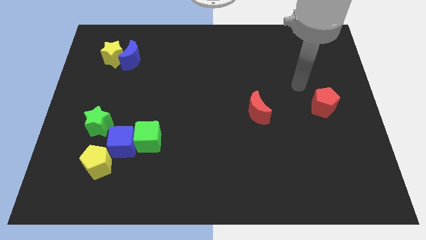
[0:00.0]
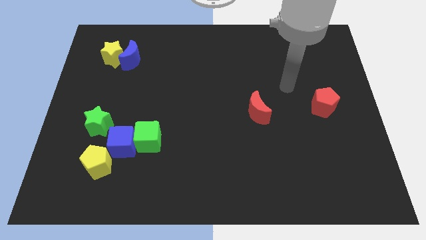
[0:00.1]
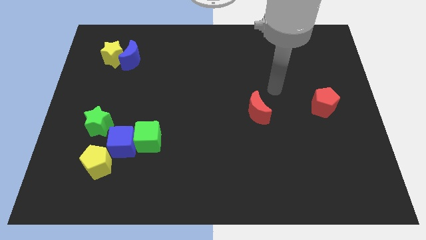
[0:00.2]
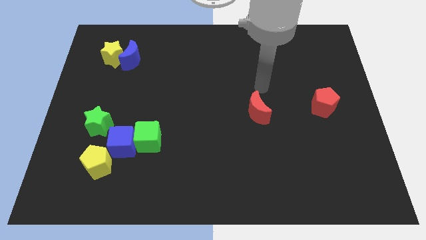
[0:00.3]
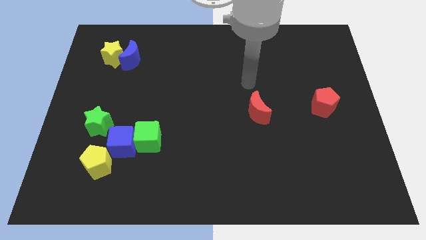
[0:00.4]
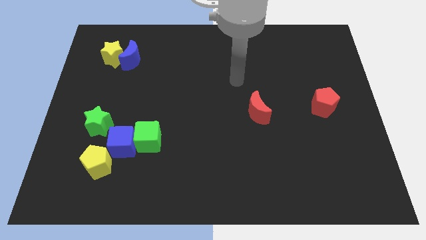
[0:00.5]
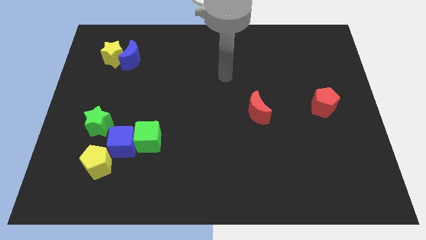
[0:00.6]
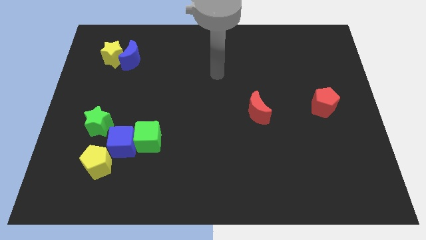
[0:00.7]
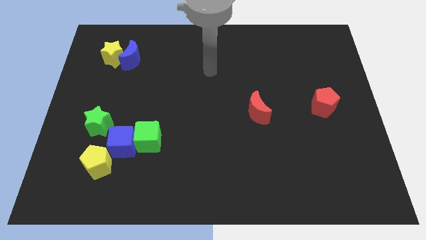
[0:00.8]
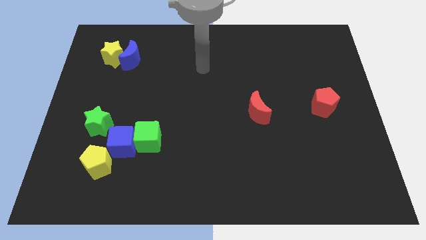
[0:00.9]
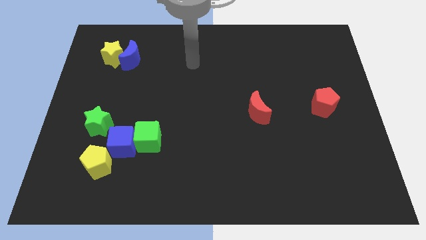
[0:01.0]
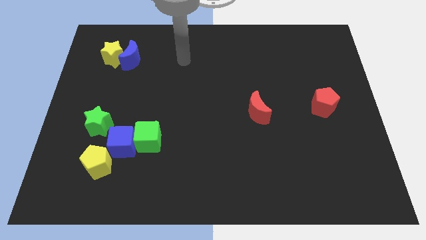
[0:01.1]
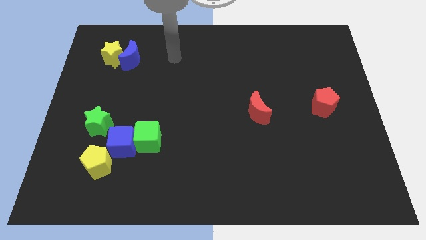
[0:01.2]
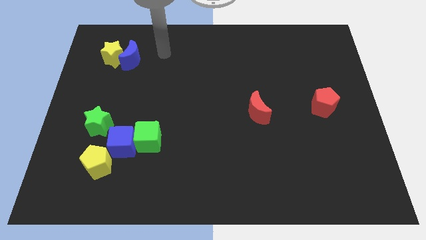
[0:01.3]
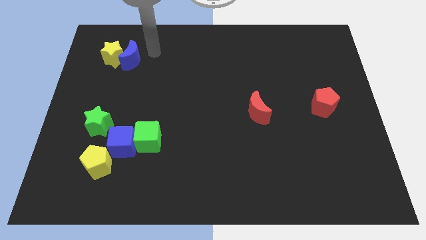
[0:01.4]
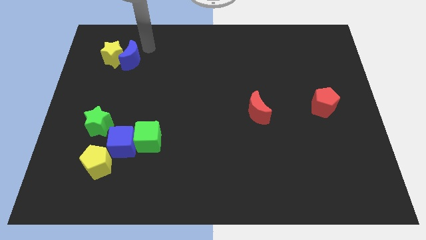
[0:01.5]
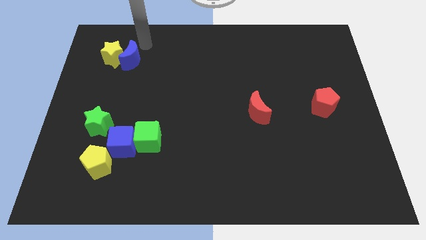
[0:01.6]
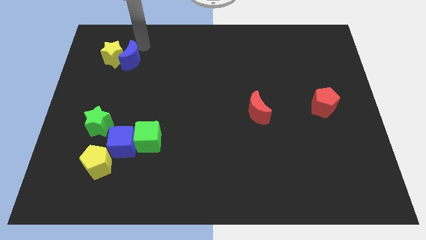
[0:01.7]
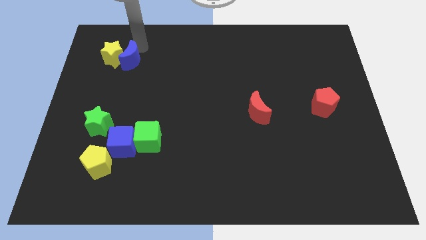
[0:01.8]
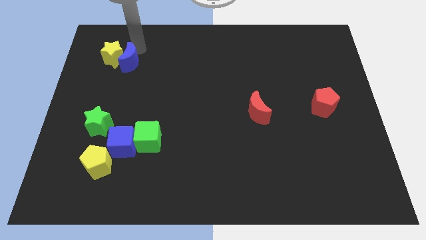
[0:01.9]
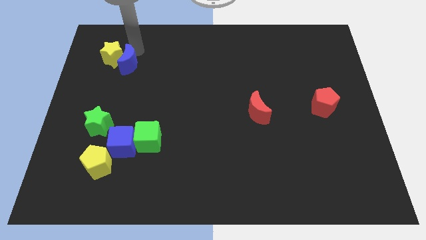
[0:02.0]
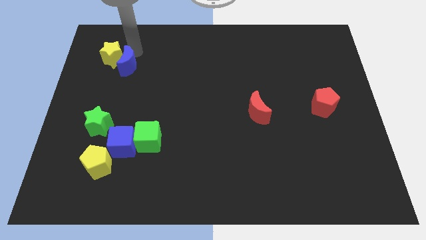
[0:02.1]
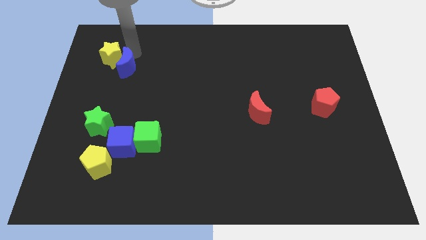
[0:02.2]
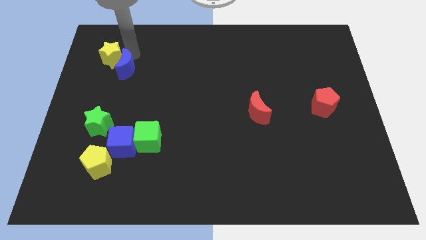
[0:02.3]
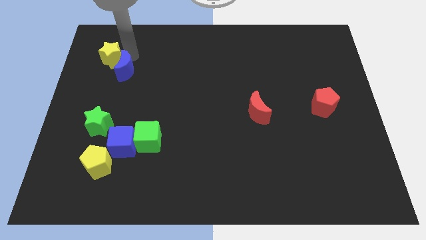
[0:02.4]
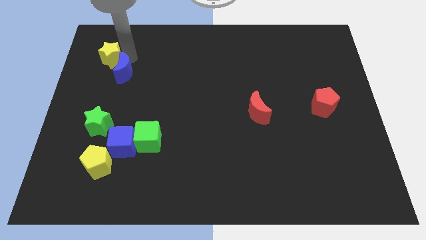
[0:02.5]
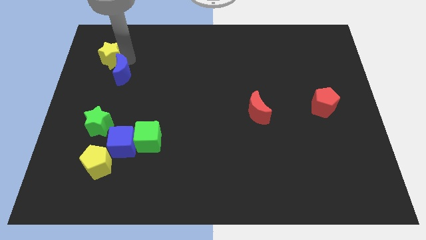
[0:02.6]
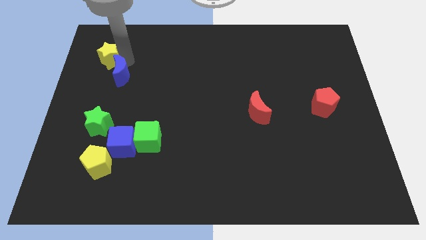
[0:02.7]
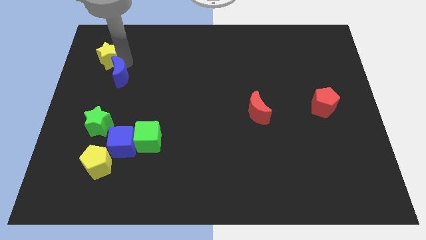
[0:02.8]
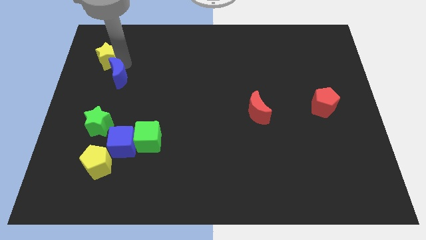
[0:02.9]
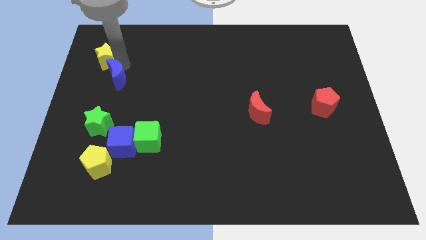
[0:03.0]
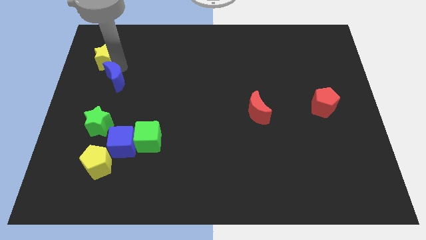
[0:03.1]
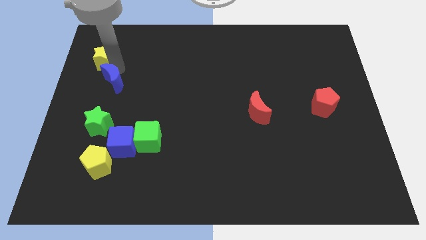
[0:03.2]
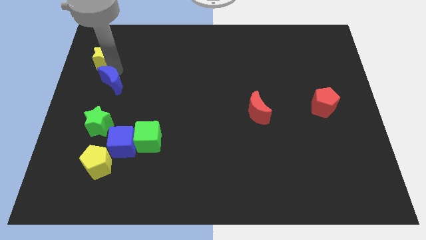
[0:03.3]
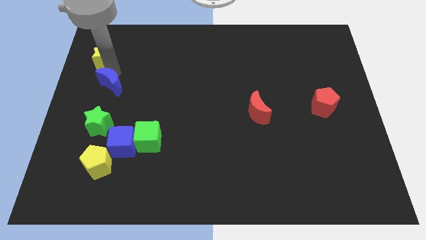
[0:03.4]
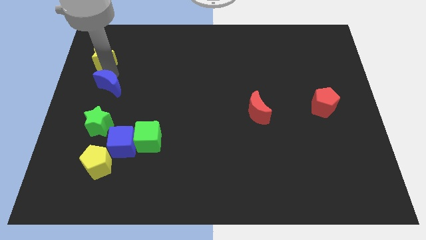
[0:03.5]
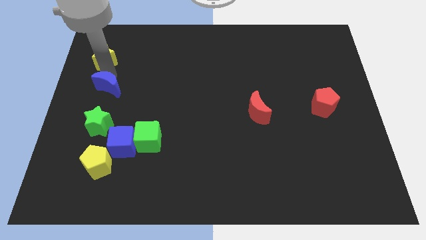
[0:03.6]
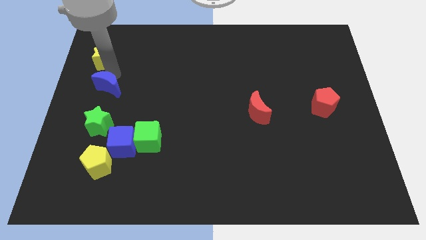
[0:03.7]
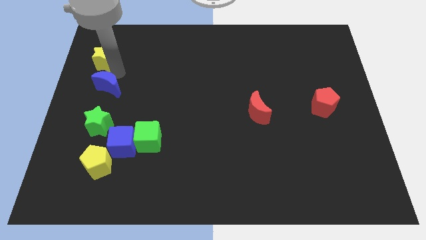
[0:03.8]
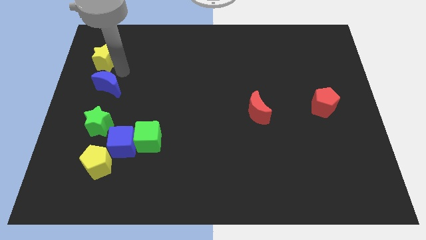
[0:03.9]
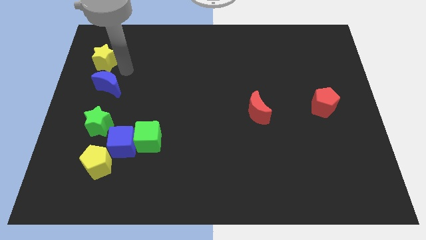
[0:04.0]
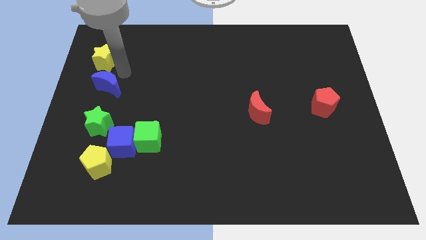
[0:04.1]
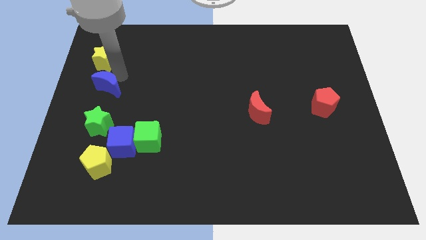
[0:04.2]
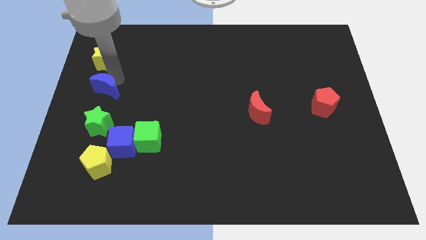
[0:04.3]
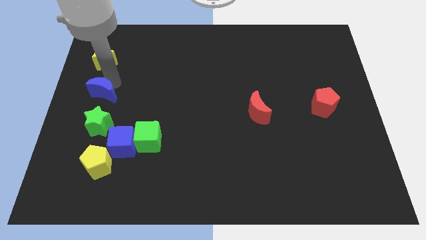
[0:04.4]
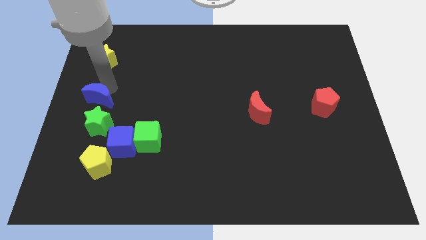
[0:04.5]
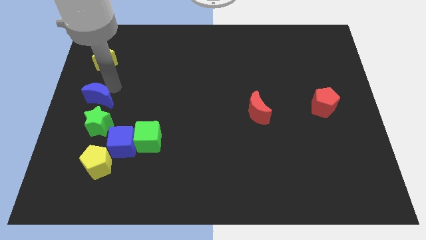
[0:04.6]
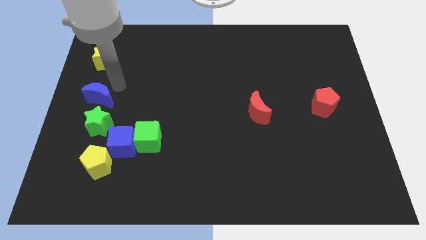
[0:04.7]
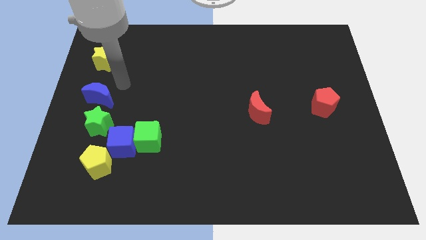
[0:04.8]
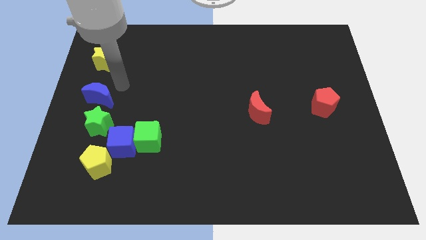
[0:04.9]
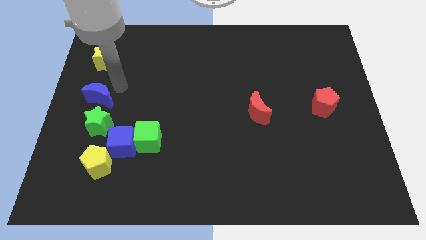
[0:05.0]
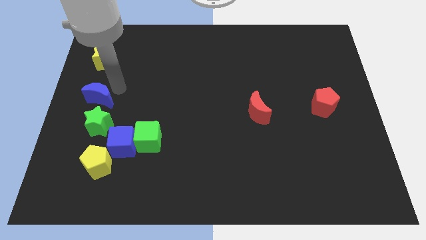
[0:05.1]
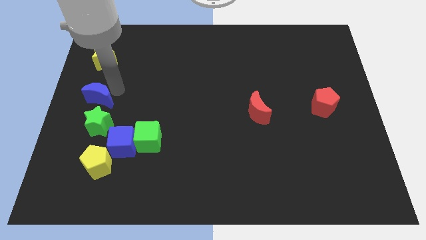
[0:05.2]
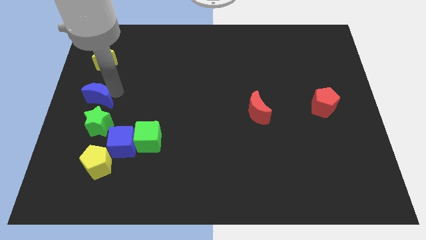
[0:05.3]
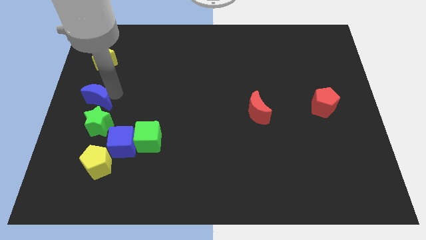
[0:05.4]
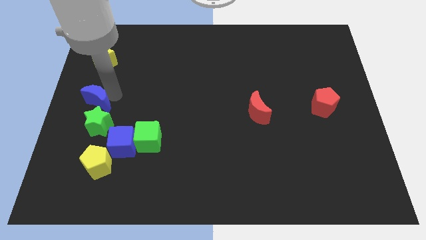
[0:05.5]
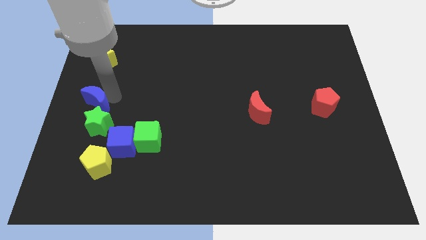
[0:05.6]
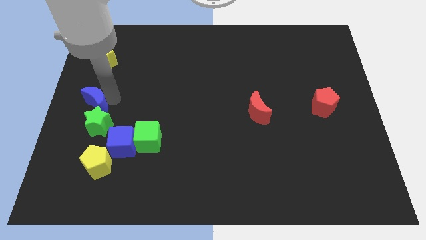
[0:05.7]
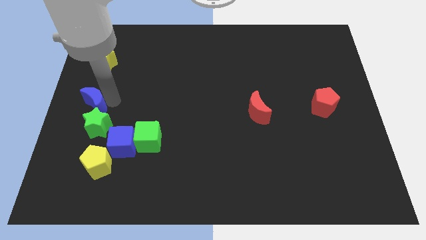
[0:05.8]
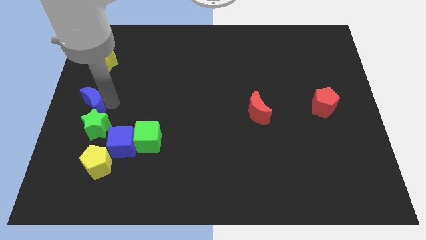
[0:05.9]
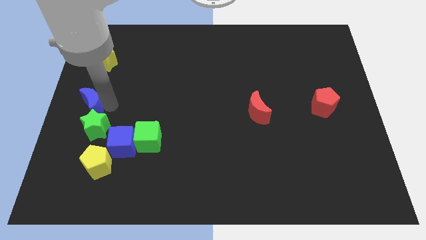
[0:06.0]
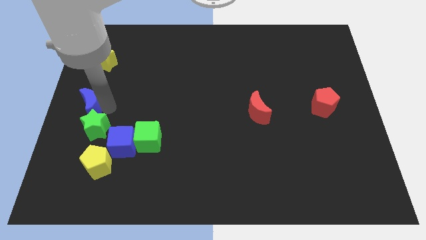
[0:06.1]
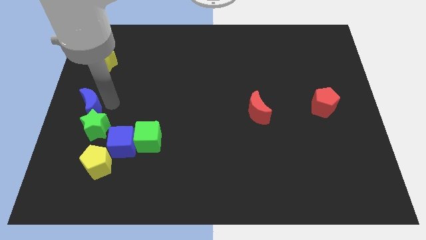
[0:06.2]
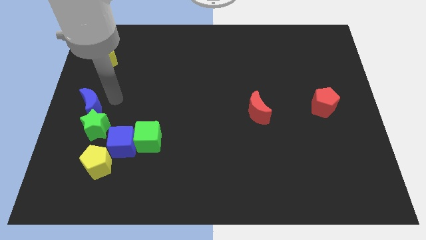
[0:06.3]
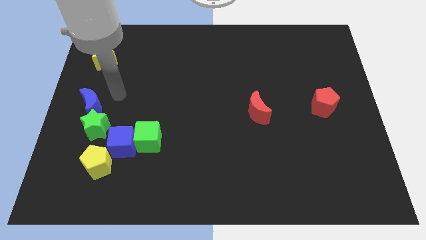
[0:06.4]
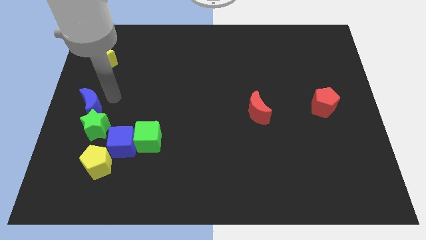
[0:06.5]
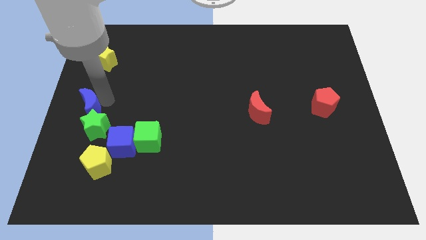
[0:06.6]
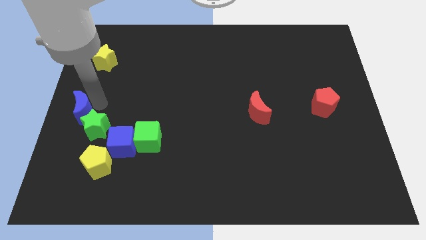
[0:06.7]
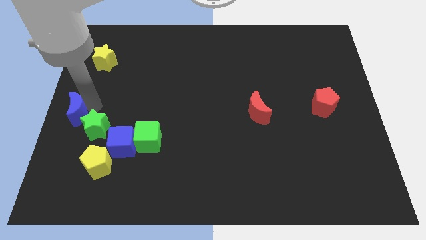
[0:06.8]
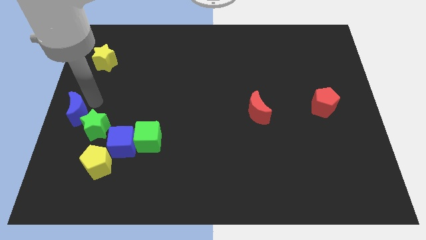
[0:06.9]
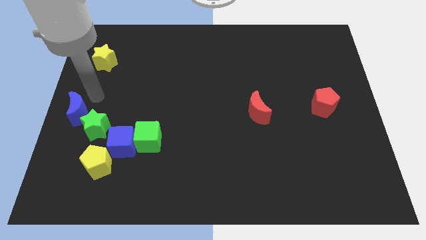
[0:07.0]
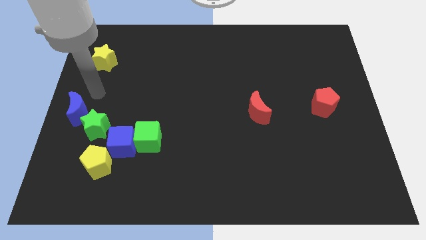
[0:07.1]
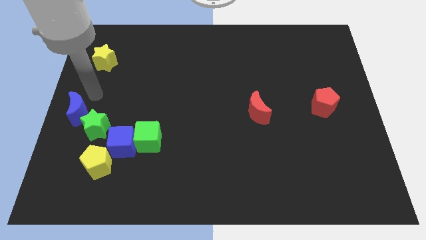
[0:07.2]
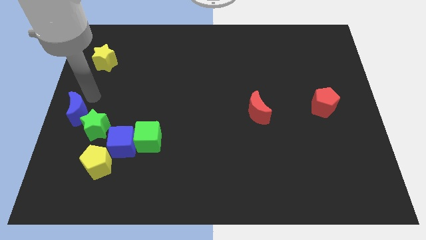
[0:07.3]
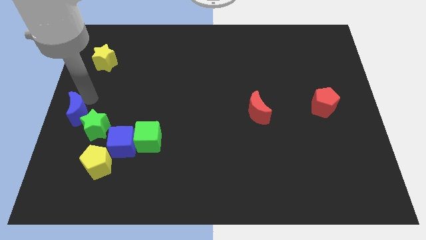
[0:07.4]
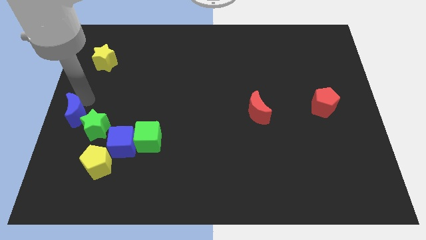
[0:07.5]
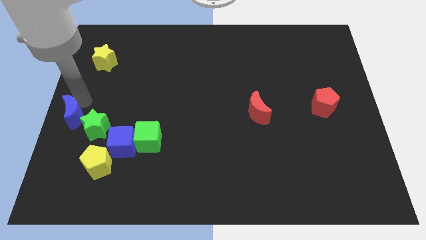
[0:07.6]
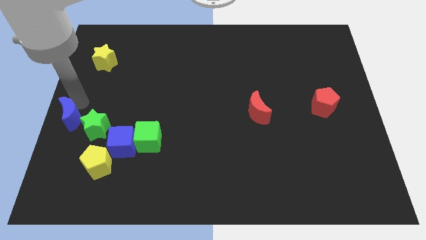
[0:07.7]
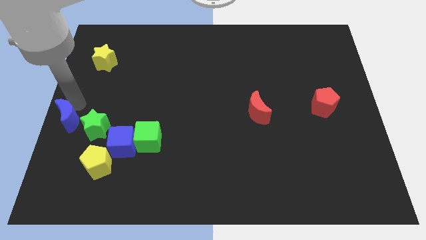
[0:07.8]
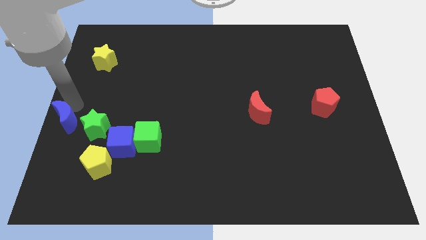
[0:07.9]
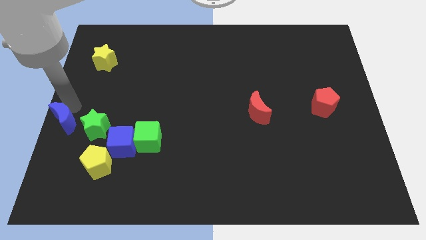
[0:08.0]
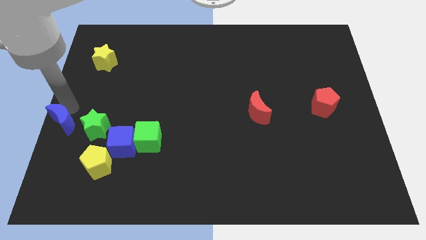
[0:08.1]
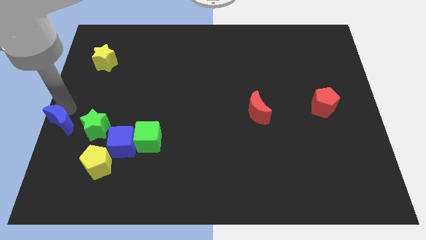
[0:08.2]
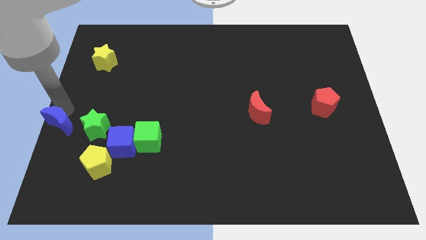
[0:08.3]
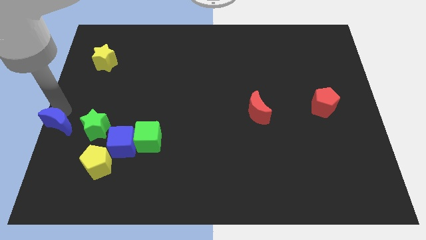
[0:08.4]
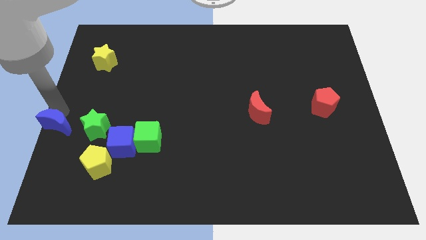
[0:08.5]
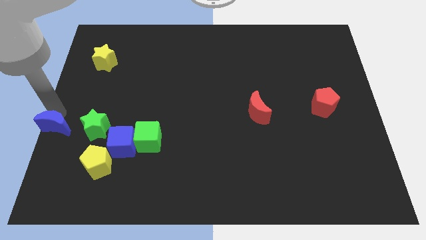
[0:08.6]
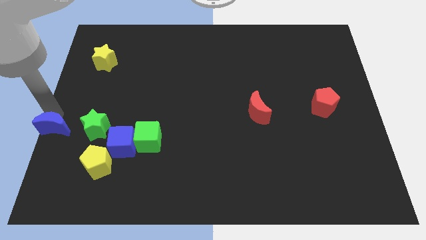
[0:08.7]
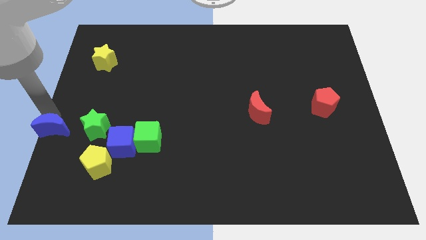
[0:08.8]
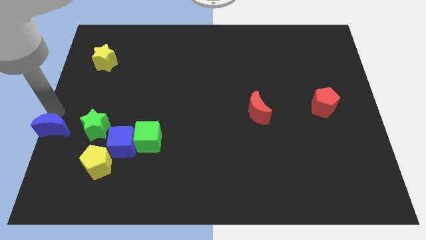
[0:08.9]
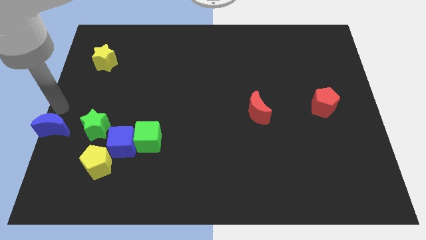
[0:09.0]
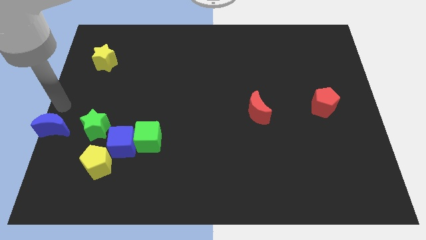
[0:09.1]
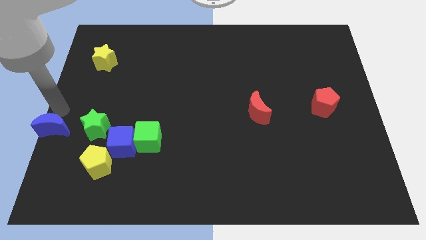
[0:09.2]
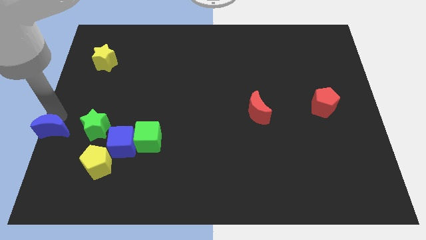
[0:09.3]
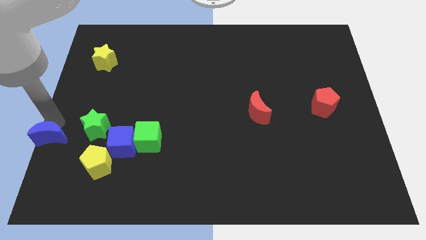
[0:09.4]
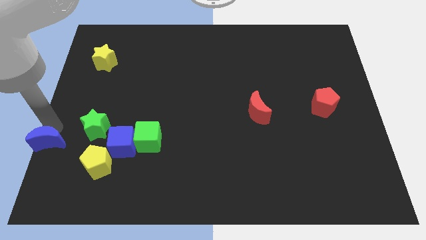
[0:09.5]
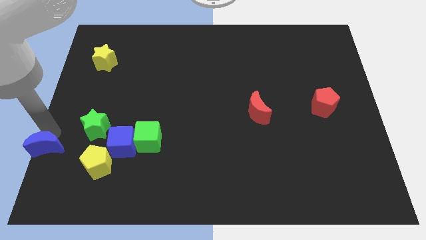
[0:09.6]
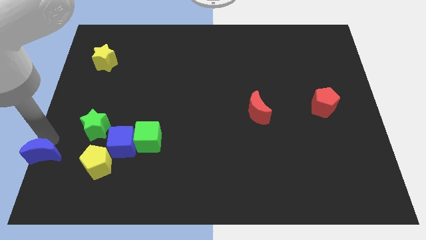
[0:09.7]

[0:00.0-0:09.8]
push the blue moon to the bottom left corner
